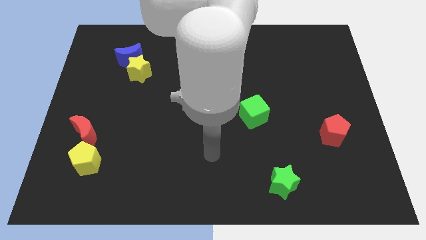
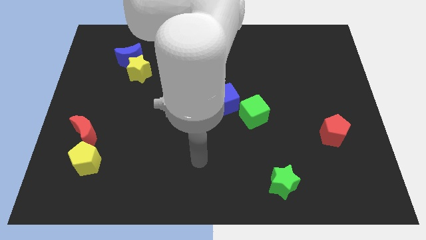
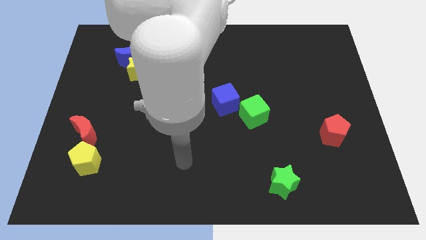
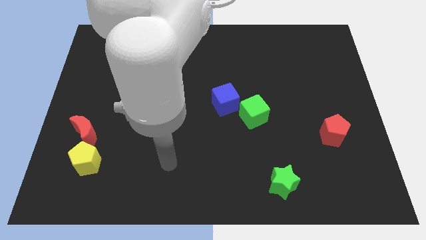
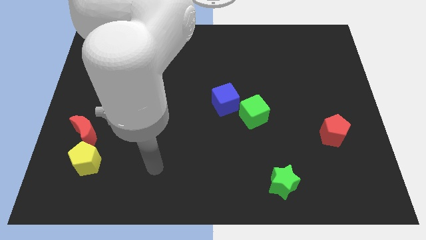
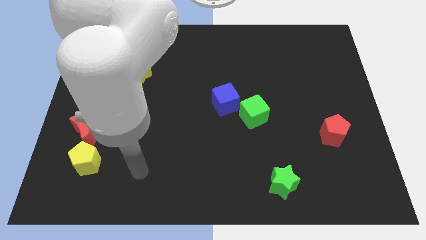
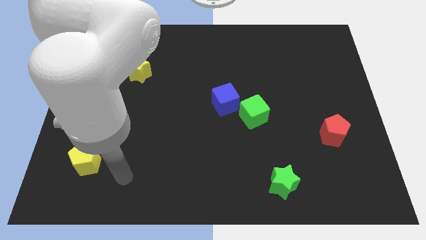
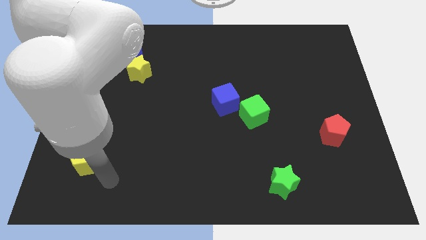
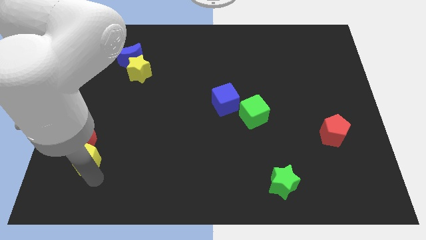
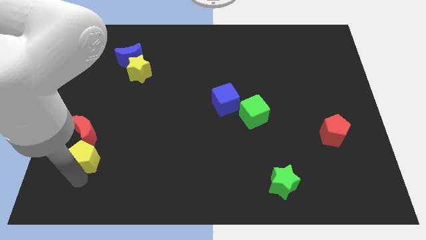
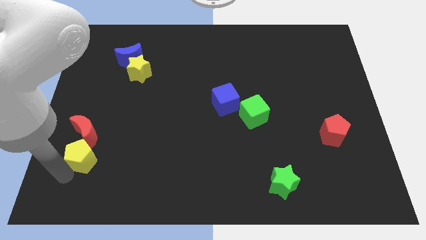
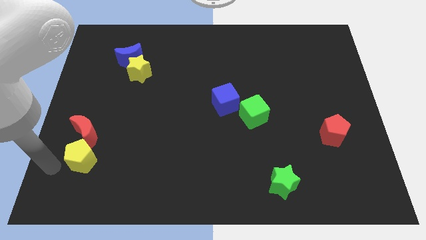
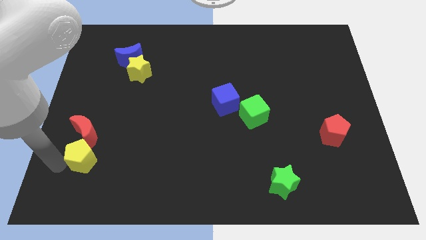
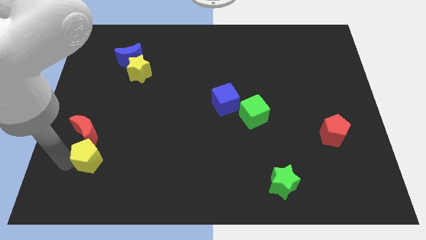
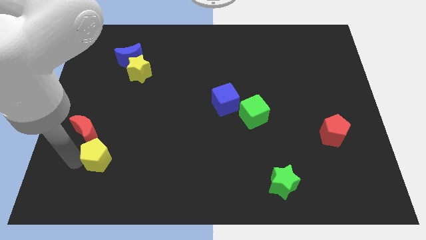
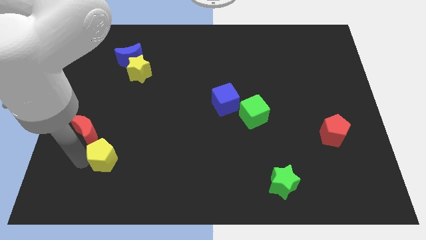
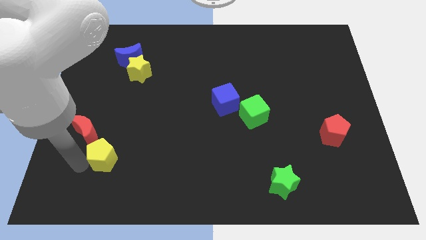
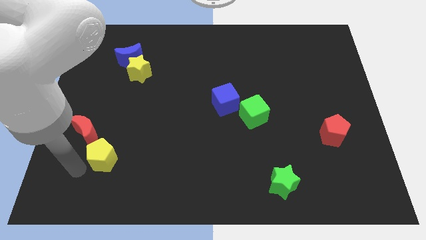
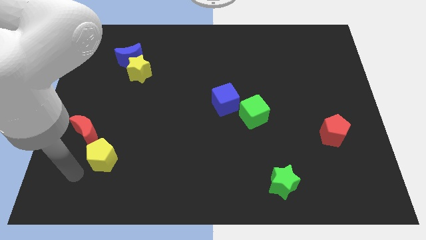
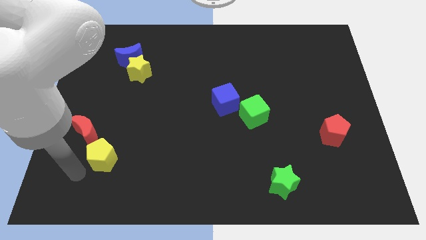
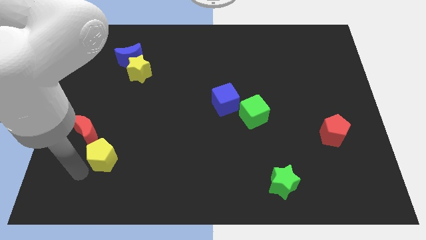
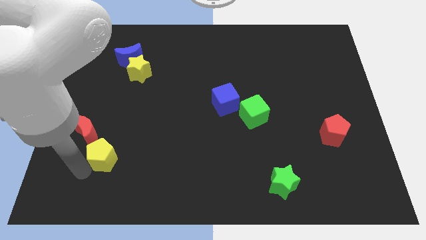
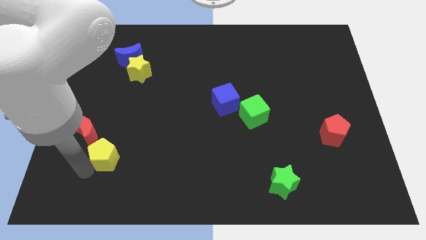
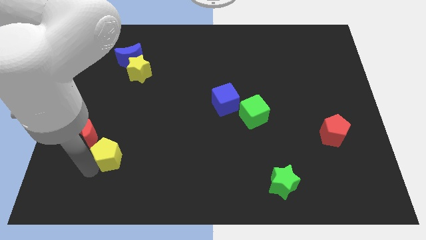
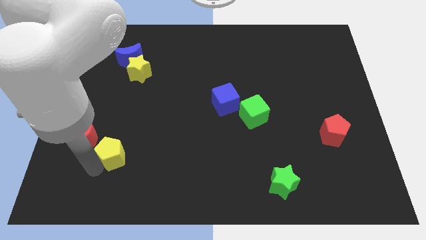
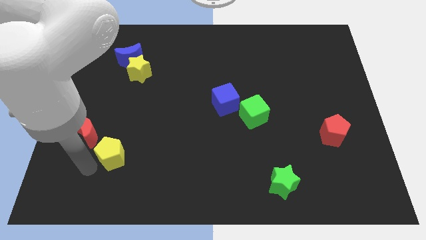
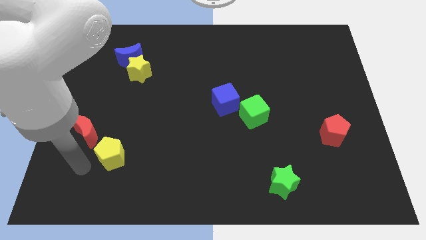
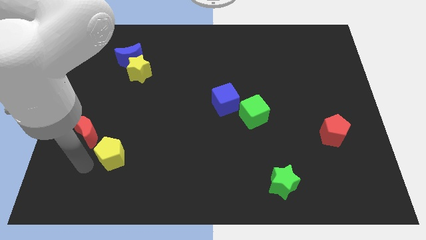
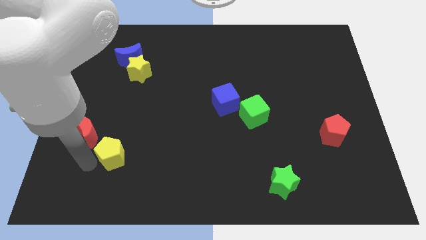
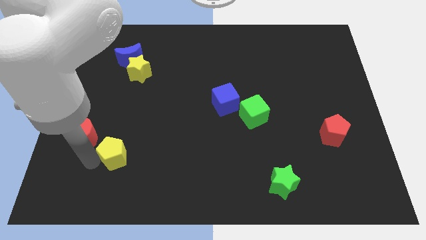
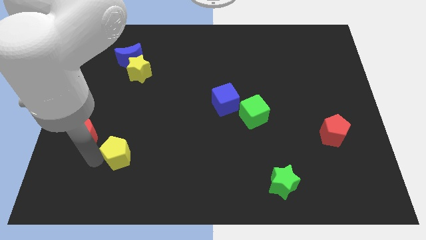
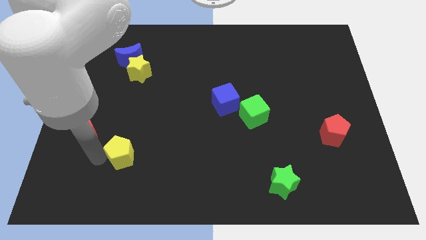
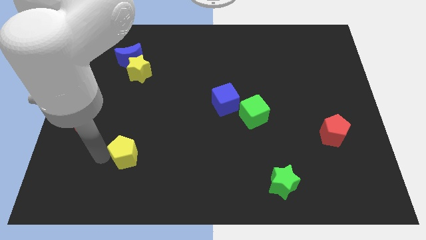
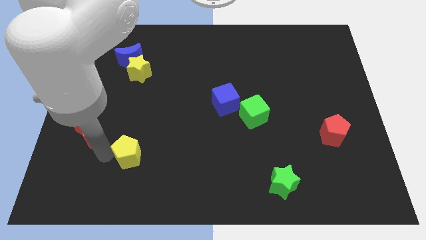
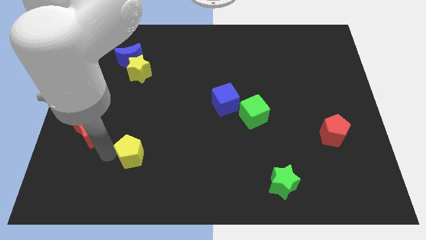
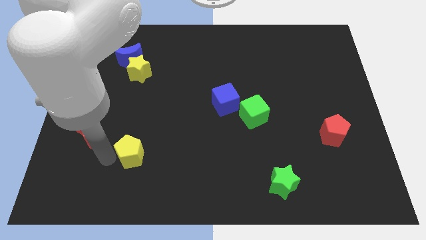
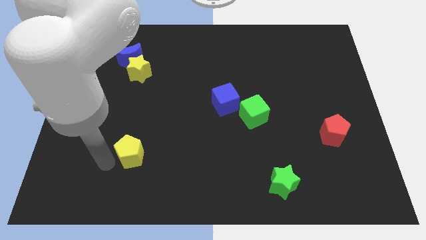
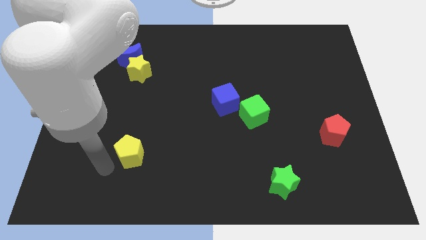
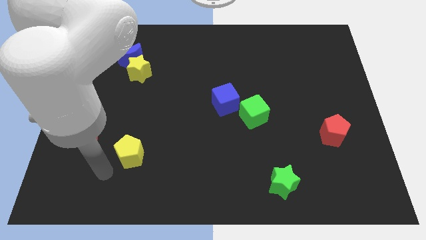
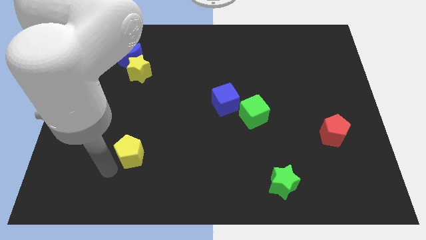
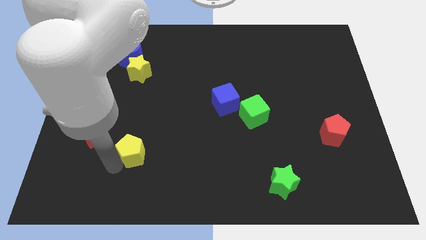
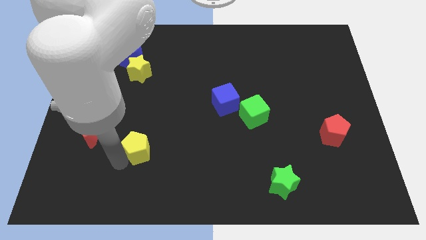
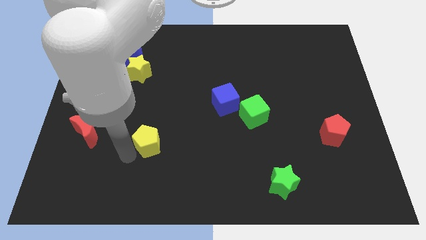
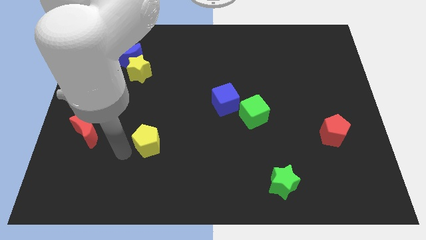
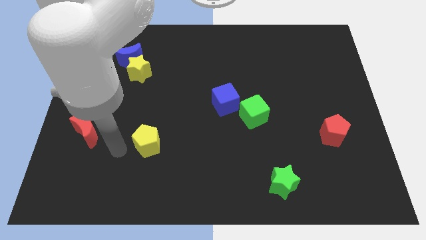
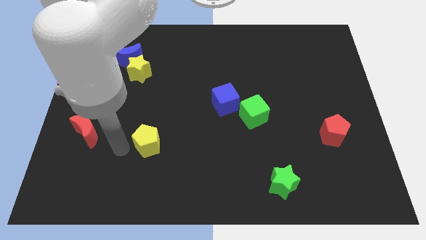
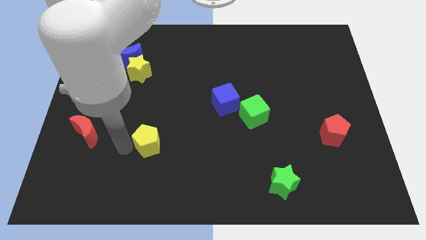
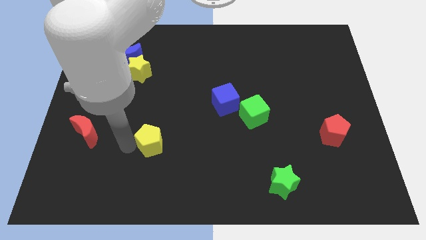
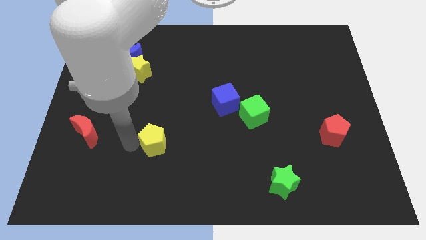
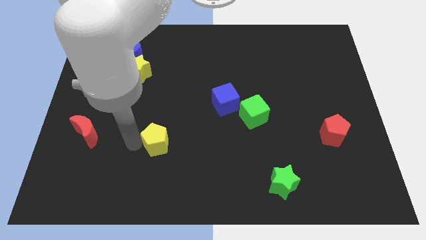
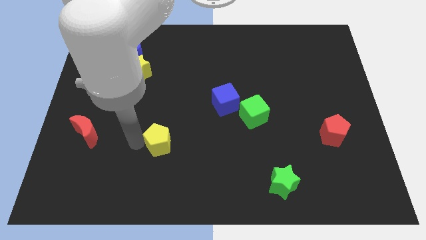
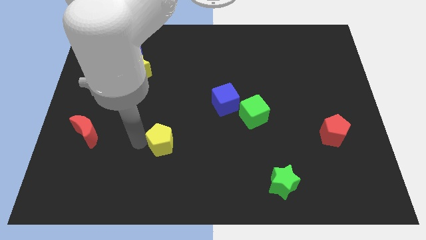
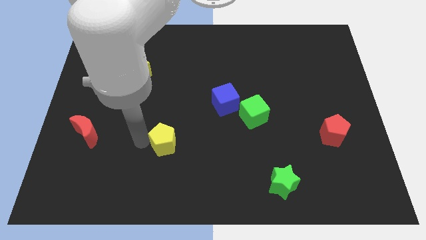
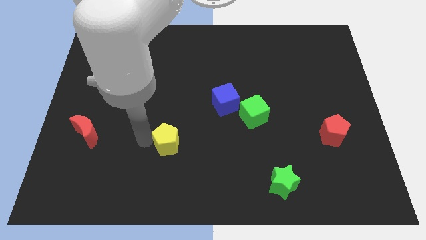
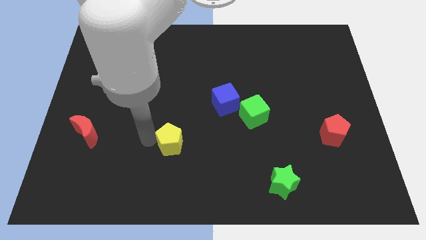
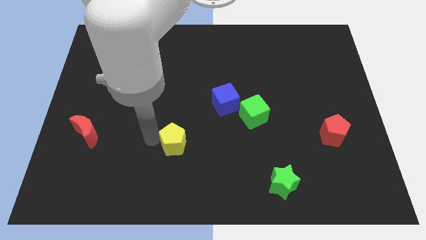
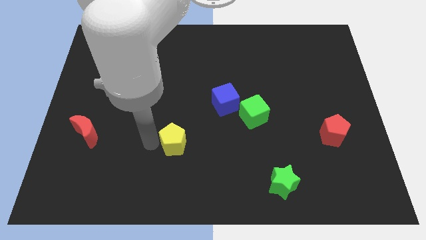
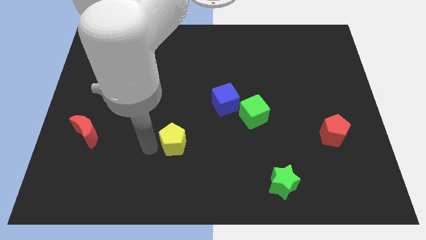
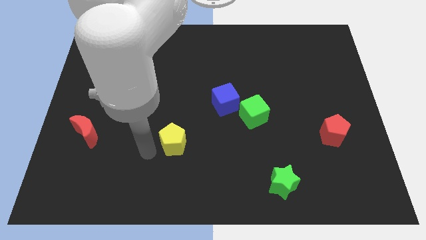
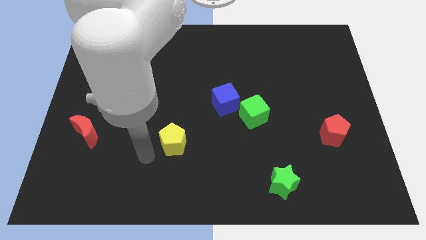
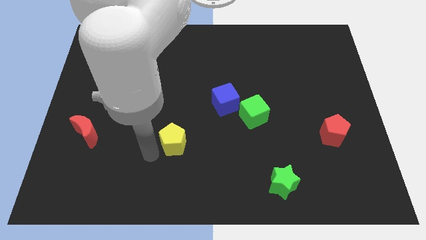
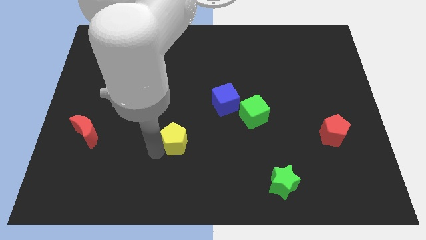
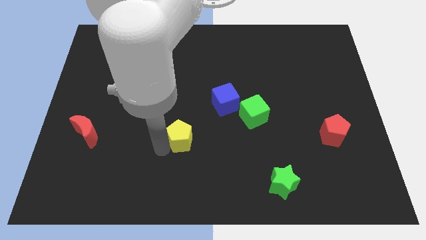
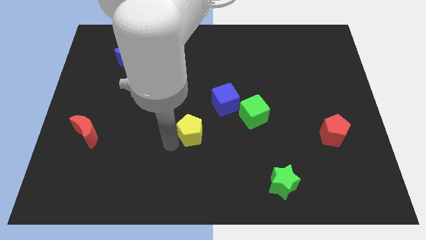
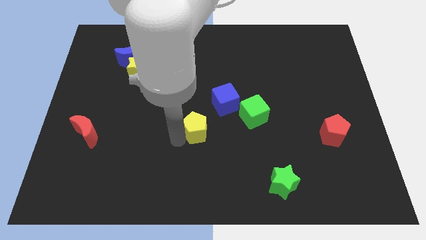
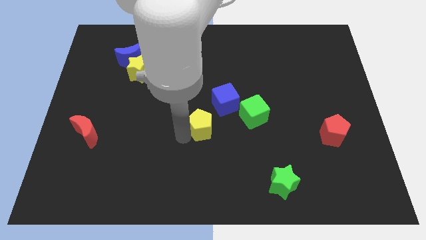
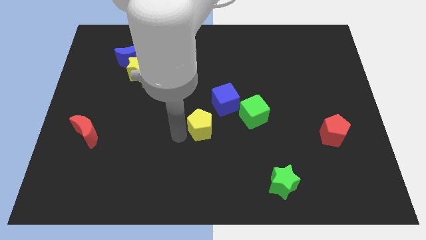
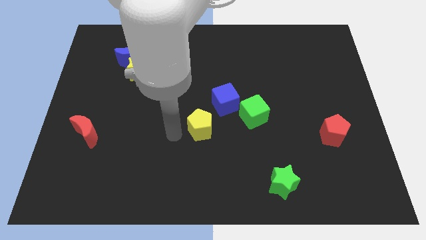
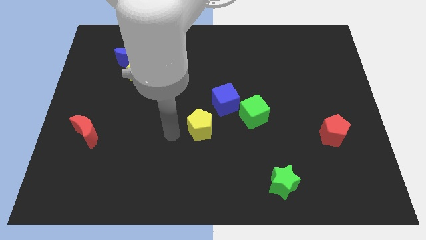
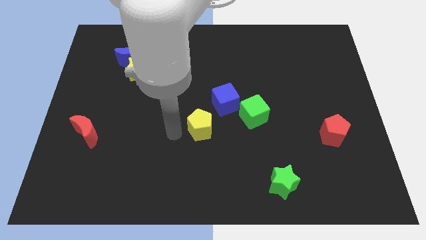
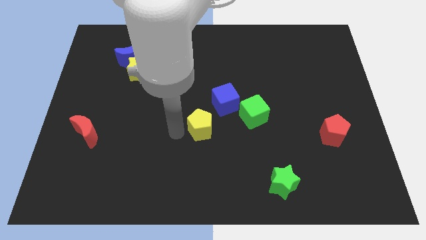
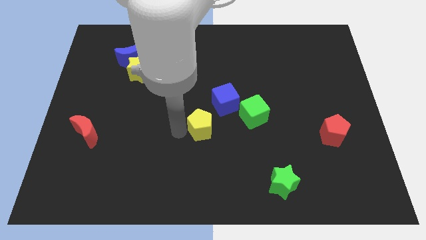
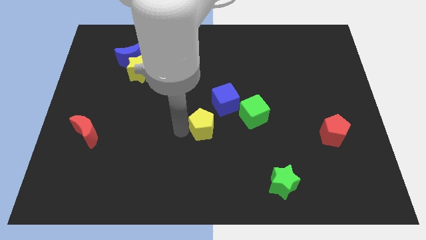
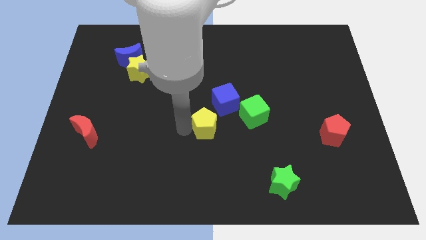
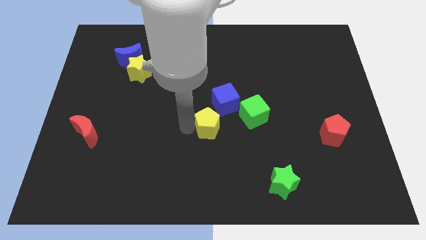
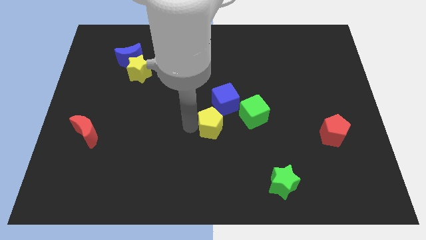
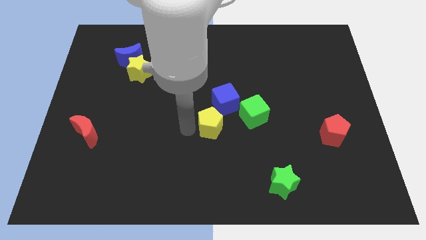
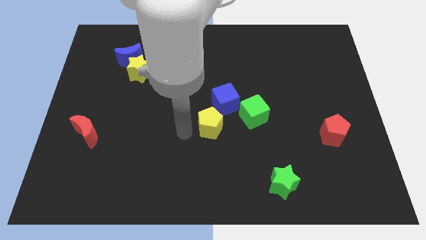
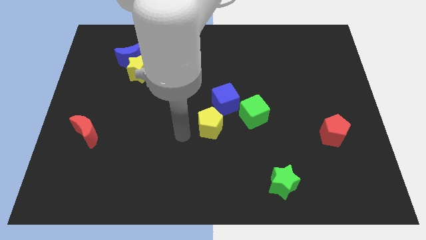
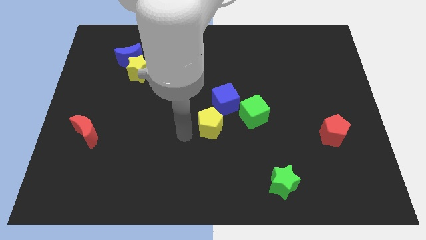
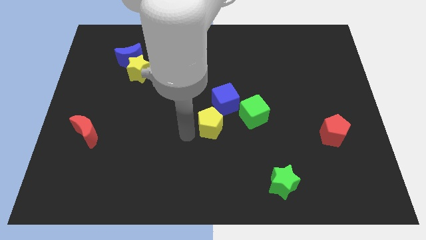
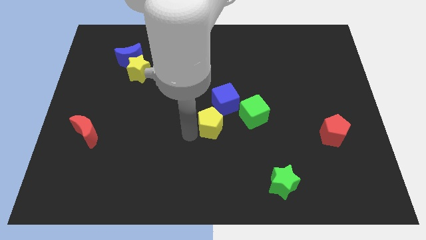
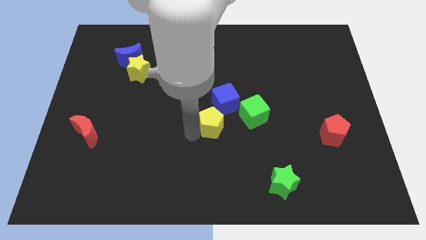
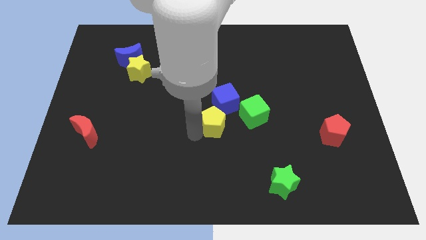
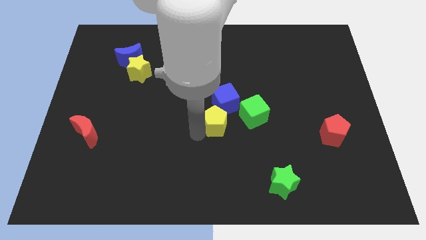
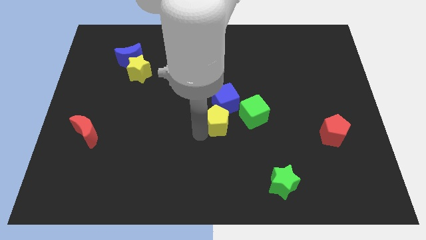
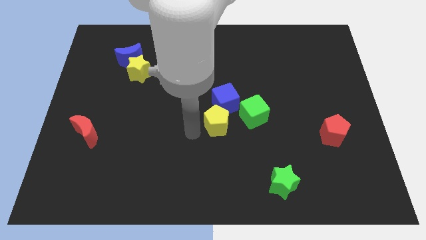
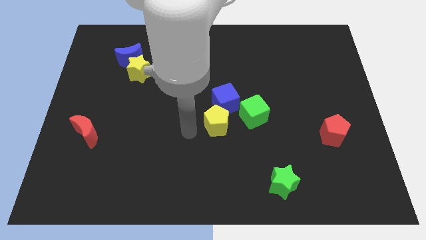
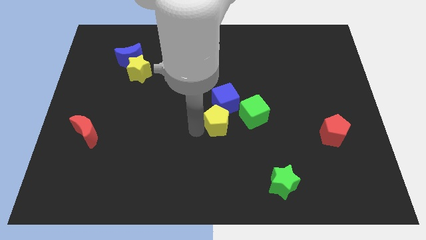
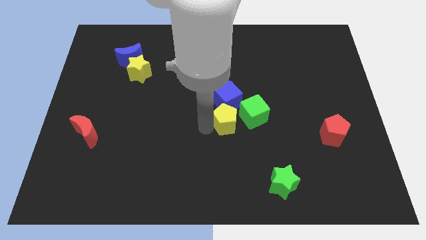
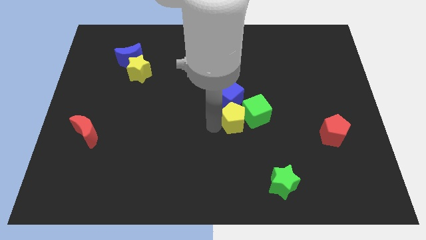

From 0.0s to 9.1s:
slide the yellow pentagon to the green cube
